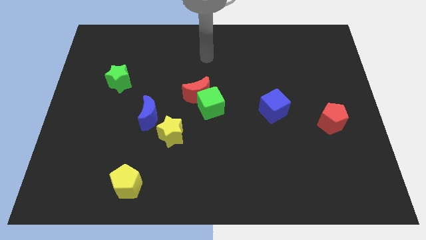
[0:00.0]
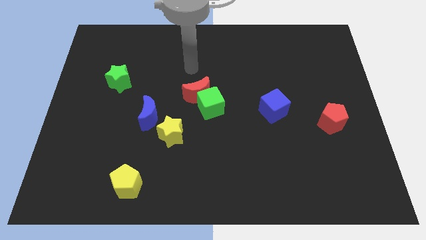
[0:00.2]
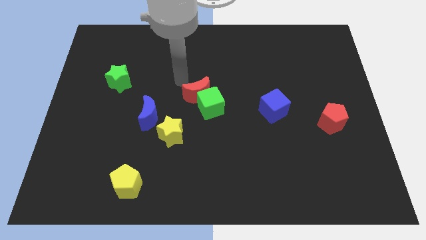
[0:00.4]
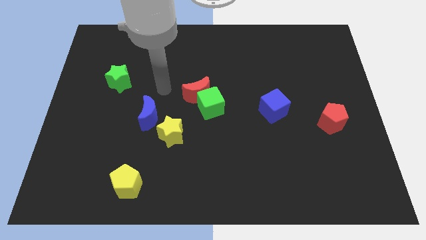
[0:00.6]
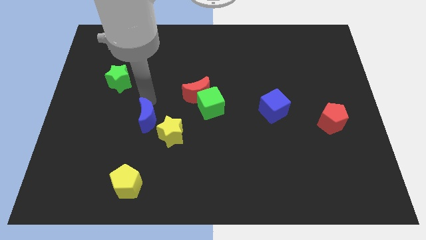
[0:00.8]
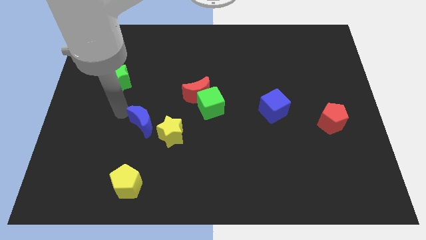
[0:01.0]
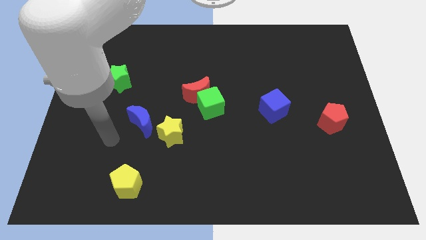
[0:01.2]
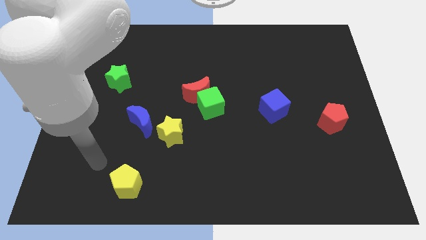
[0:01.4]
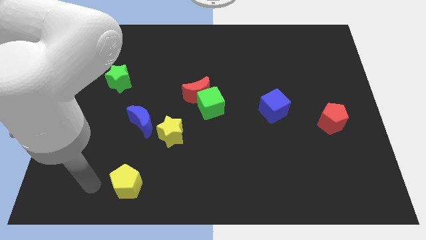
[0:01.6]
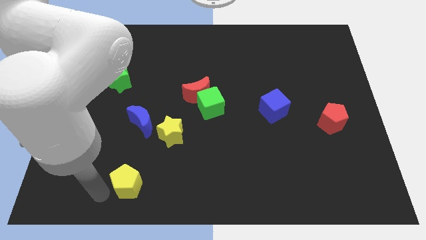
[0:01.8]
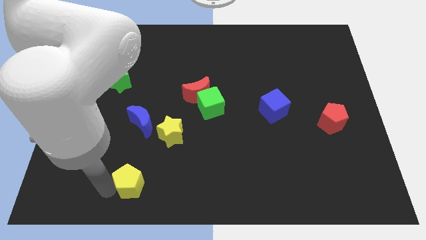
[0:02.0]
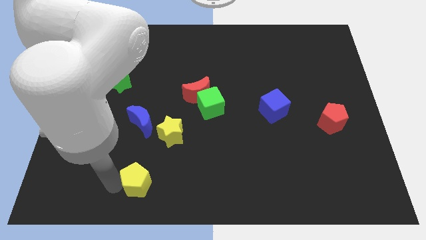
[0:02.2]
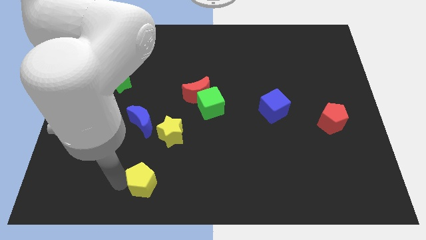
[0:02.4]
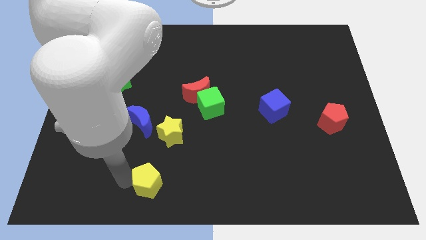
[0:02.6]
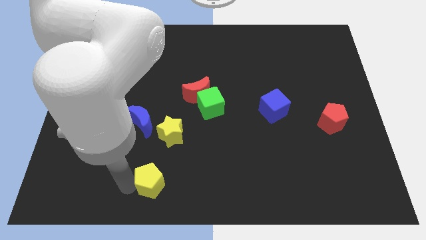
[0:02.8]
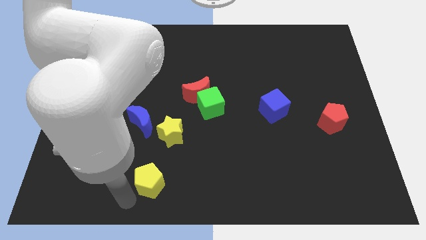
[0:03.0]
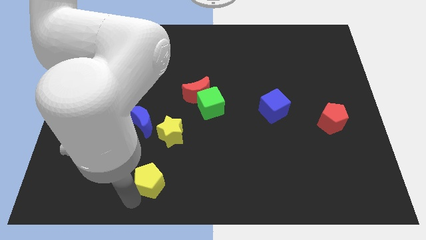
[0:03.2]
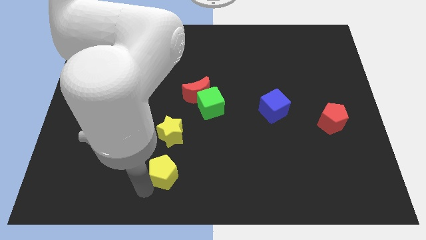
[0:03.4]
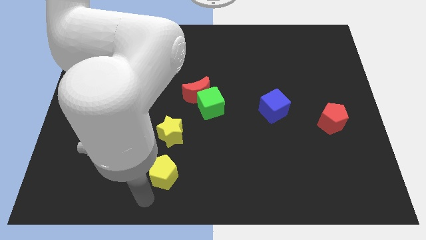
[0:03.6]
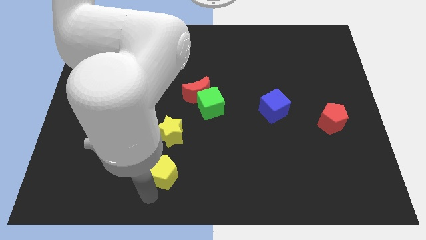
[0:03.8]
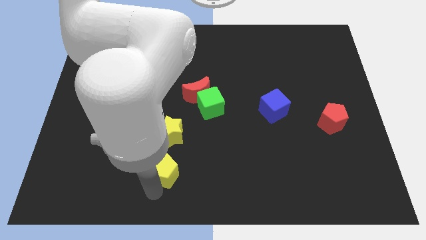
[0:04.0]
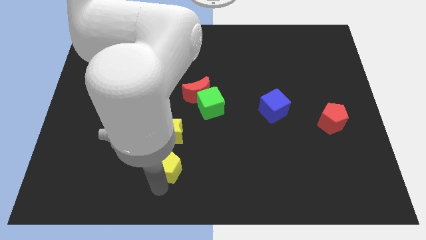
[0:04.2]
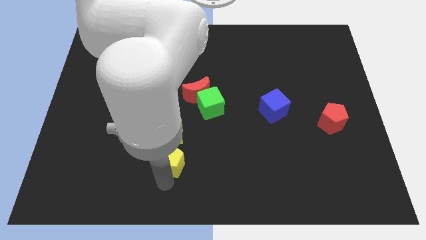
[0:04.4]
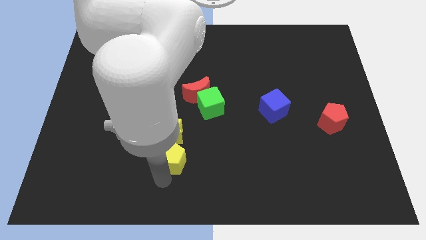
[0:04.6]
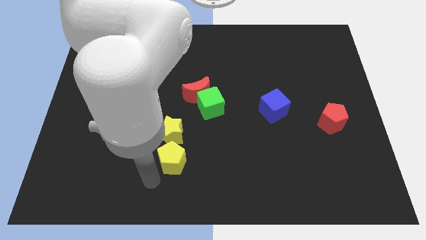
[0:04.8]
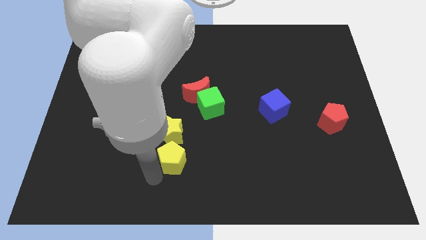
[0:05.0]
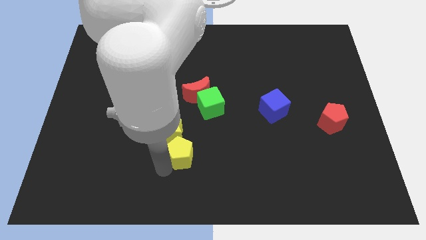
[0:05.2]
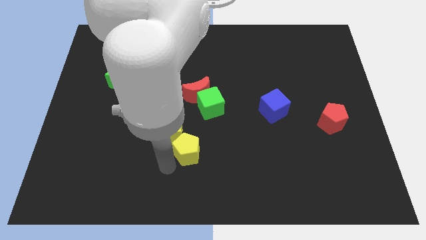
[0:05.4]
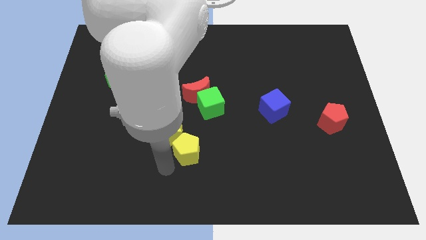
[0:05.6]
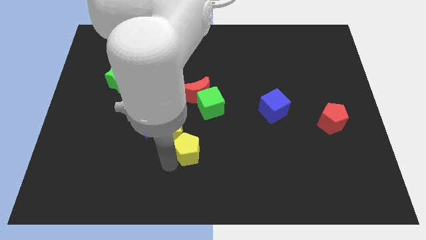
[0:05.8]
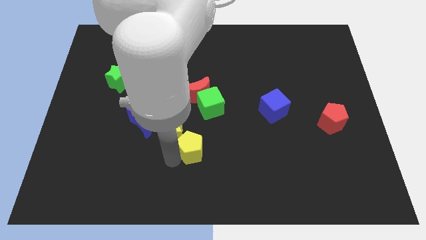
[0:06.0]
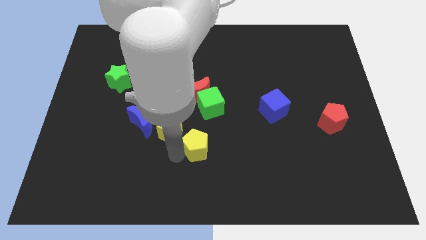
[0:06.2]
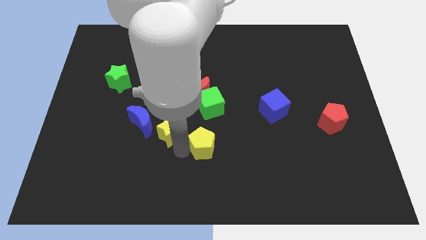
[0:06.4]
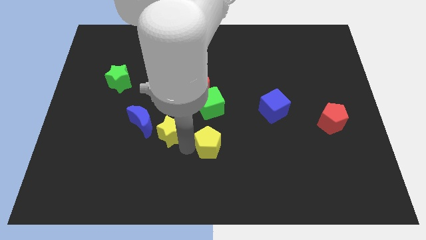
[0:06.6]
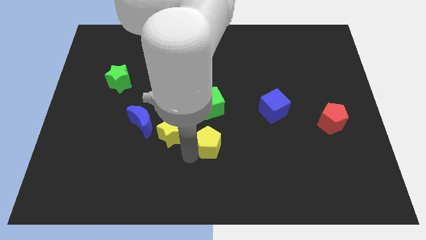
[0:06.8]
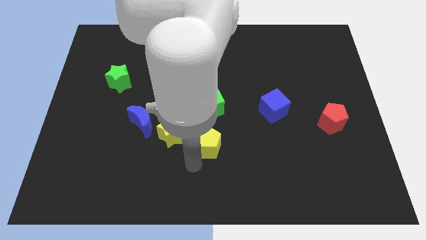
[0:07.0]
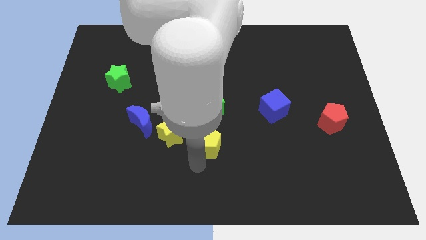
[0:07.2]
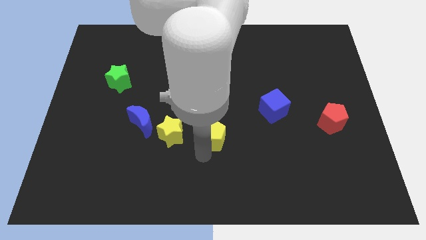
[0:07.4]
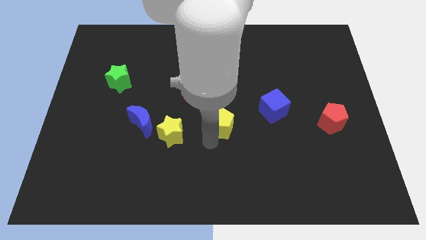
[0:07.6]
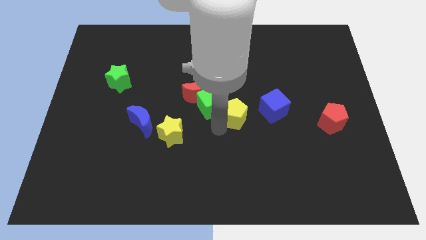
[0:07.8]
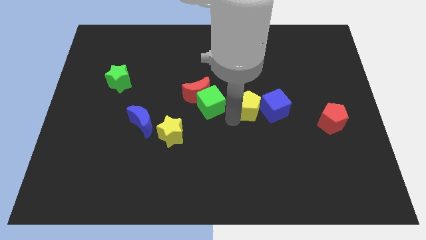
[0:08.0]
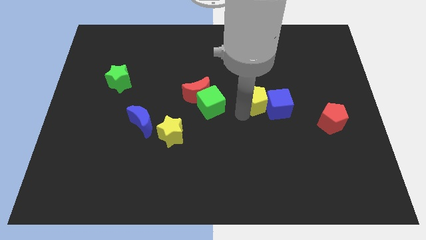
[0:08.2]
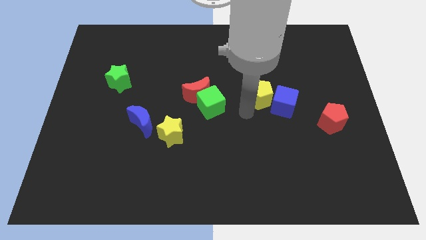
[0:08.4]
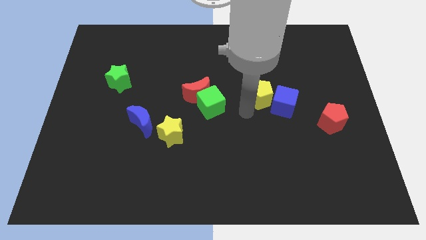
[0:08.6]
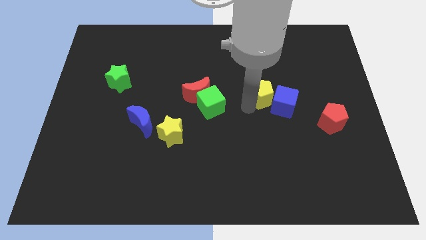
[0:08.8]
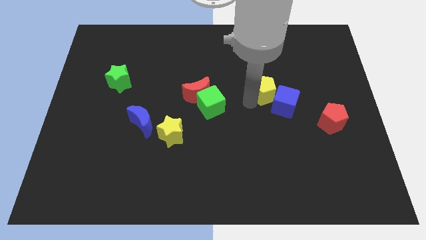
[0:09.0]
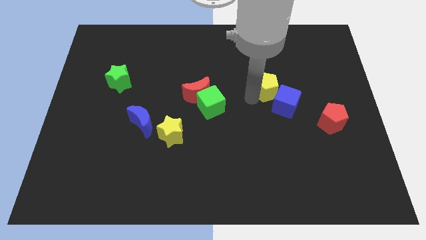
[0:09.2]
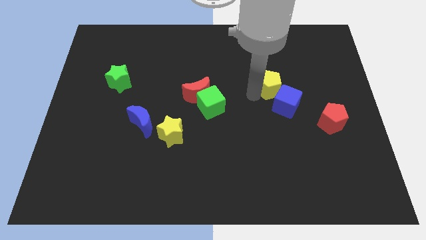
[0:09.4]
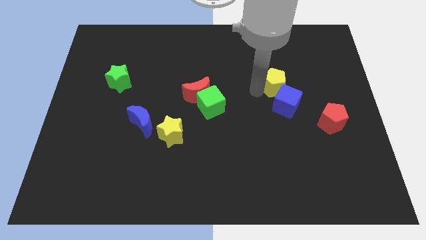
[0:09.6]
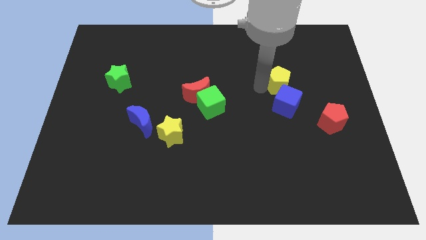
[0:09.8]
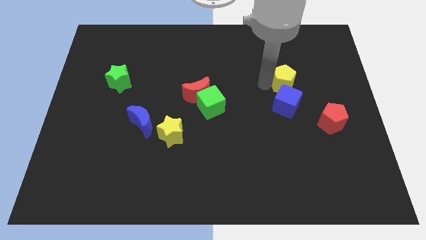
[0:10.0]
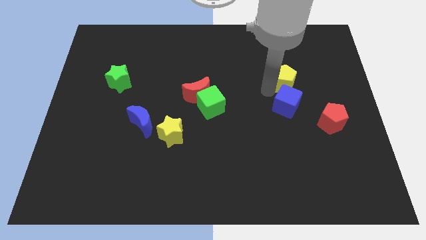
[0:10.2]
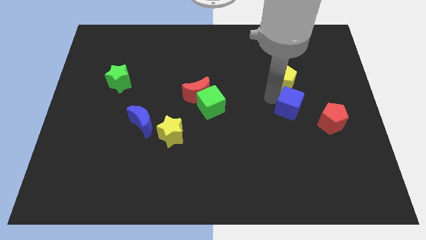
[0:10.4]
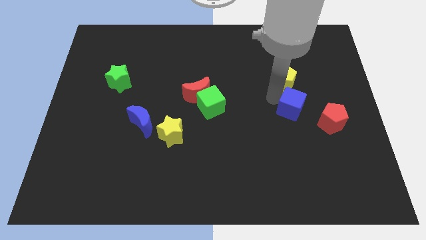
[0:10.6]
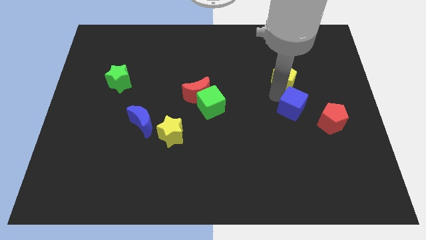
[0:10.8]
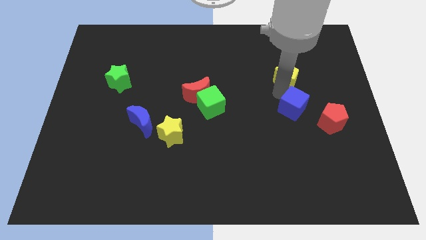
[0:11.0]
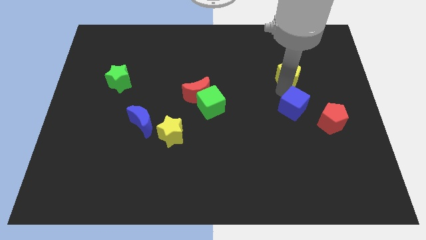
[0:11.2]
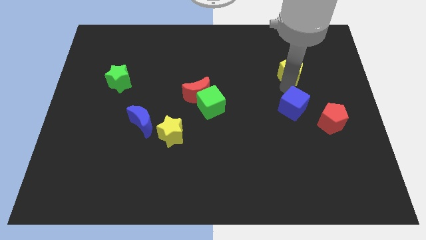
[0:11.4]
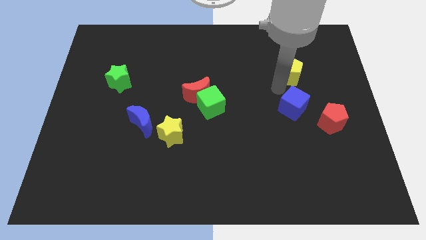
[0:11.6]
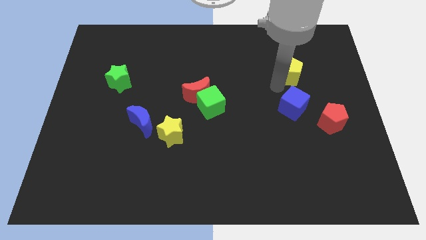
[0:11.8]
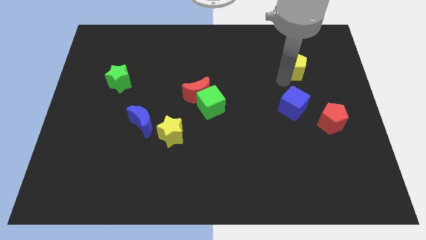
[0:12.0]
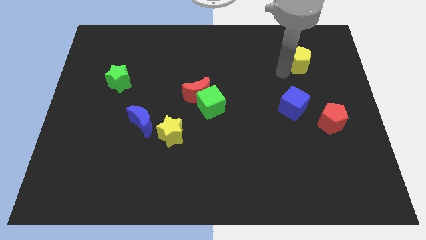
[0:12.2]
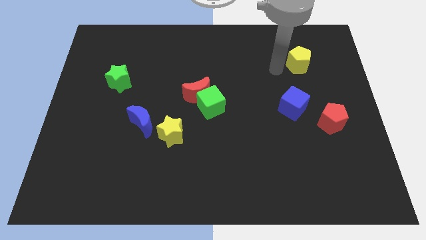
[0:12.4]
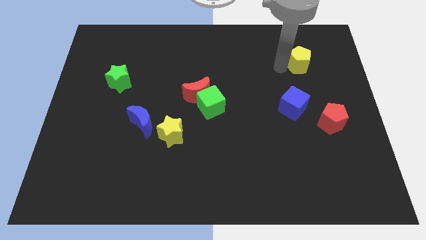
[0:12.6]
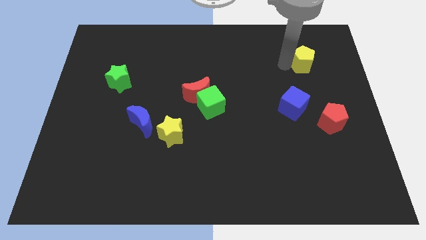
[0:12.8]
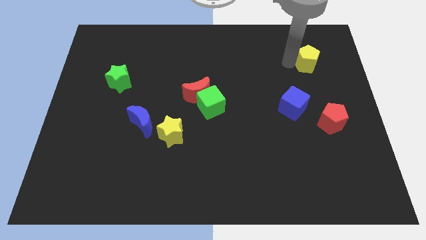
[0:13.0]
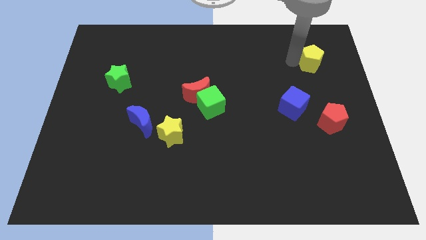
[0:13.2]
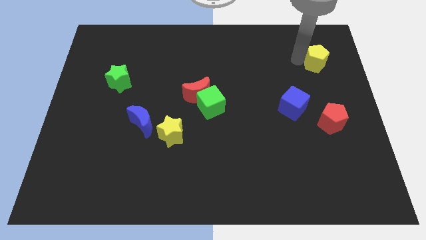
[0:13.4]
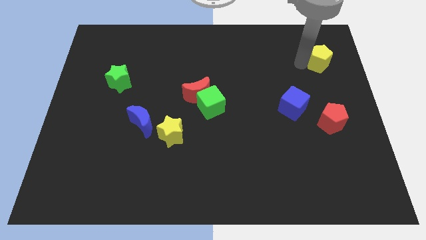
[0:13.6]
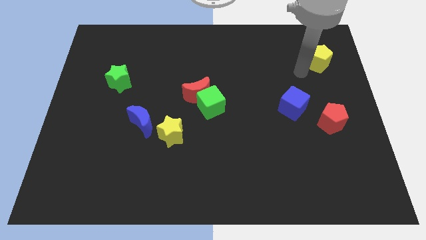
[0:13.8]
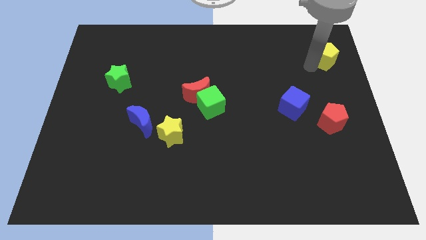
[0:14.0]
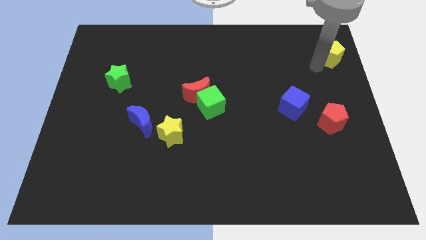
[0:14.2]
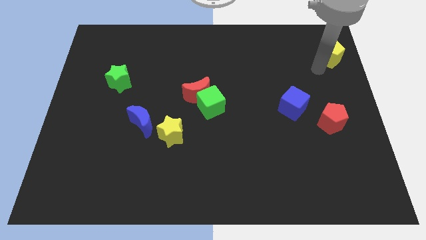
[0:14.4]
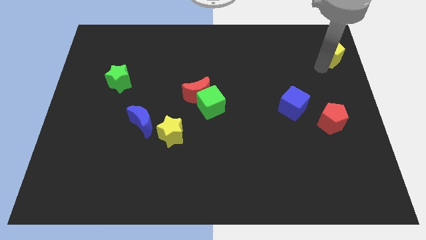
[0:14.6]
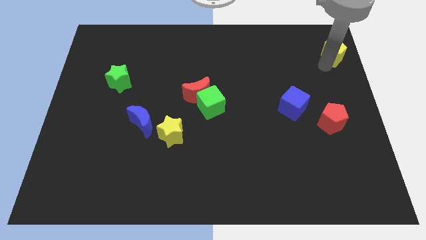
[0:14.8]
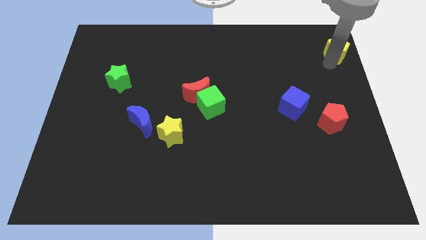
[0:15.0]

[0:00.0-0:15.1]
push the yellow pentagon to the top right of the board
